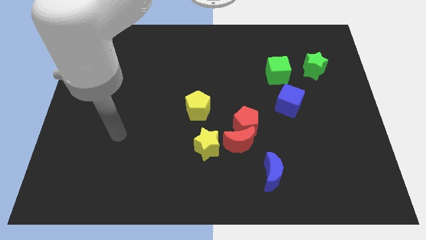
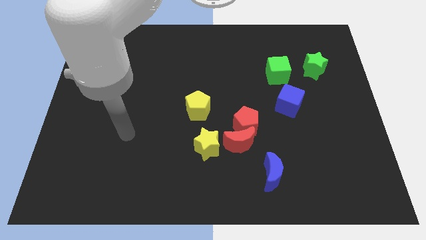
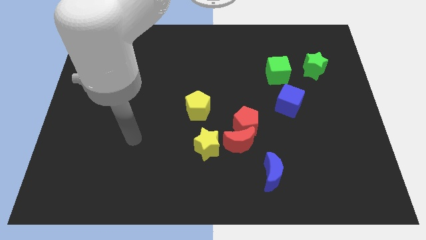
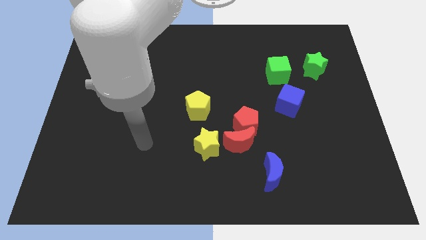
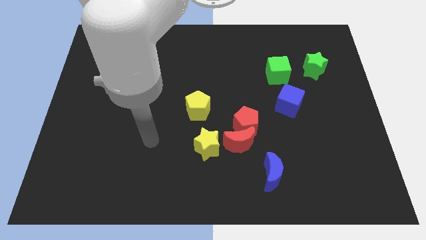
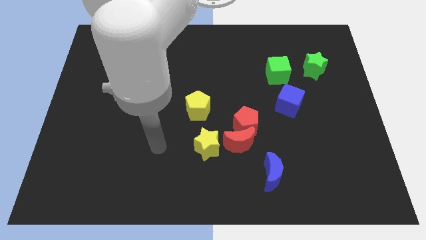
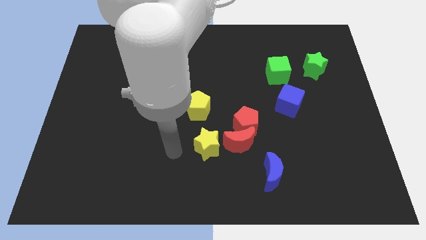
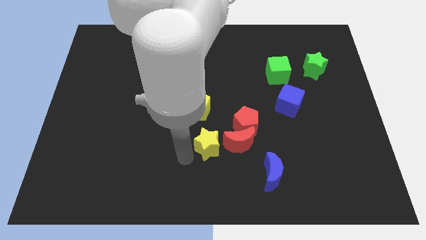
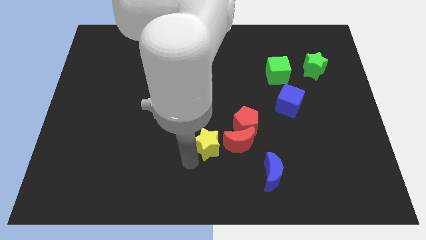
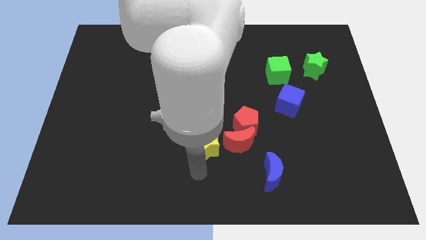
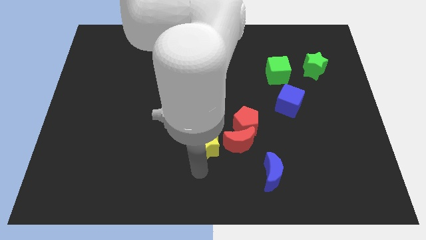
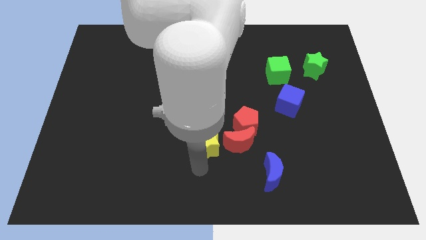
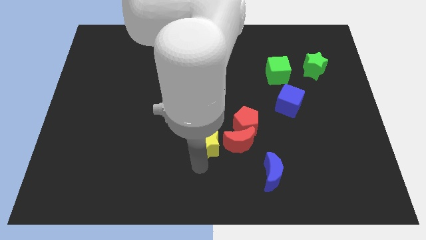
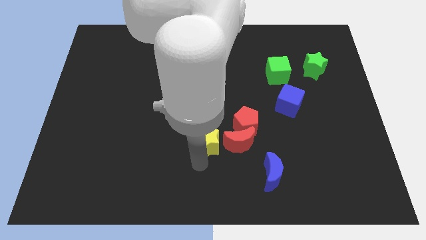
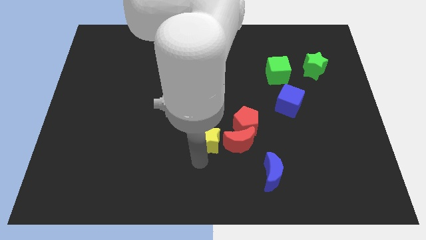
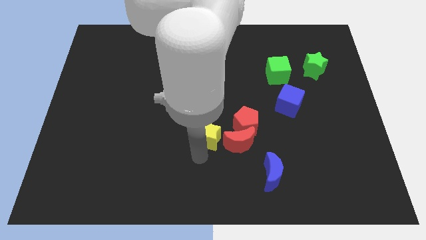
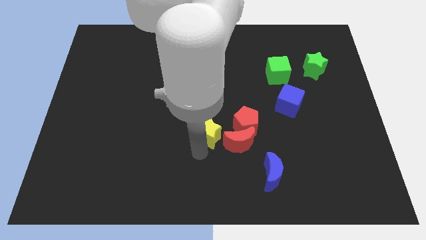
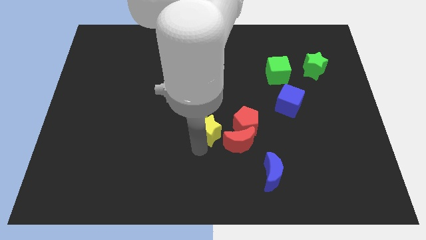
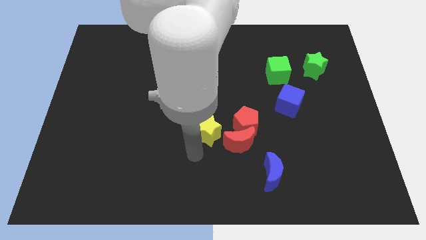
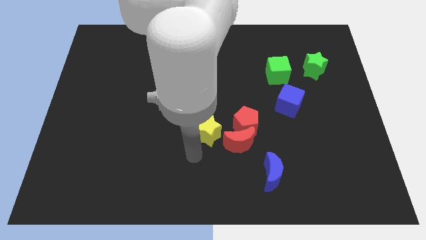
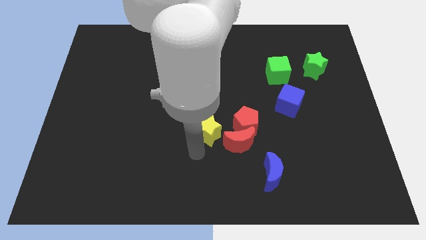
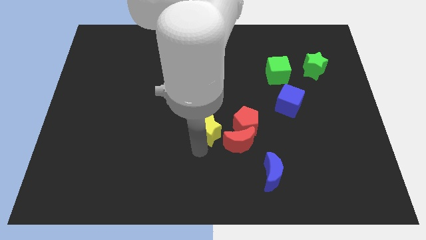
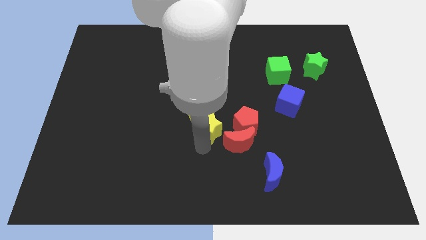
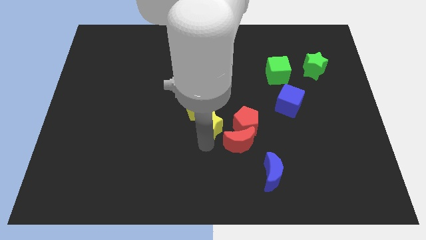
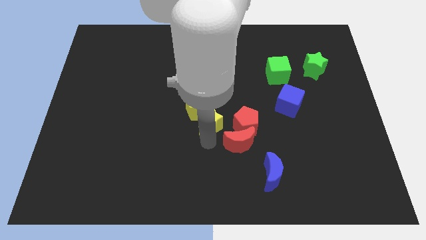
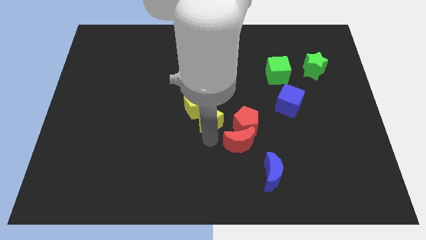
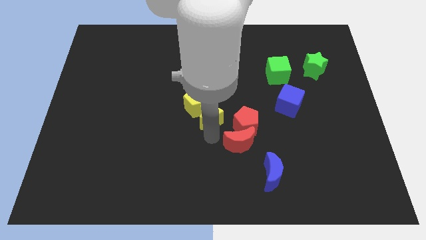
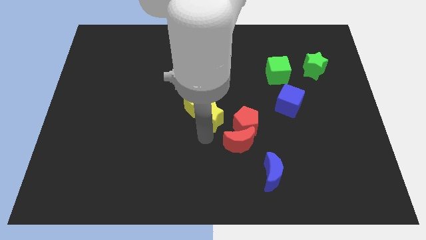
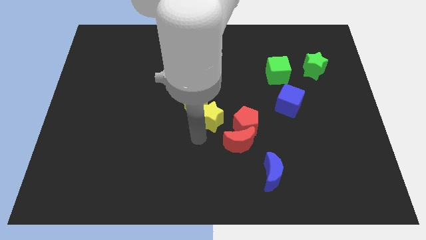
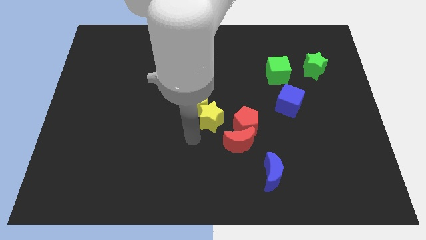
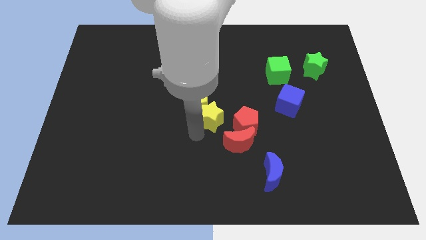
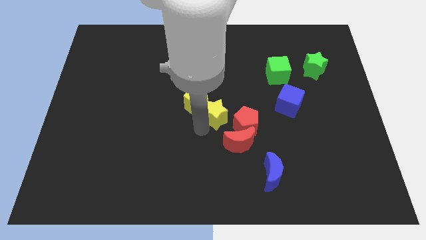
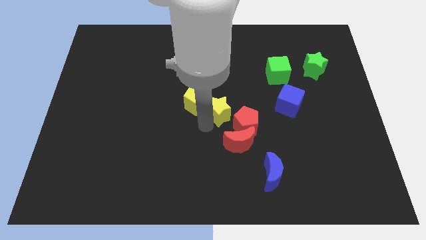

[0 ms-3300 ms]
move the yellow star a bit diagonally upwards and right

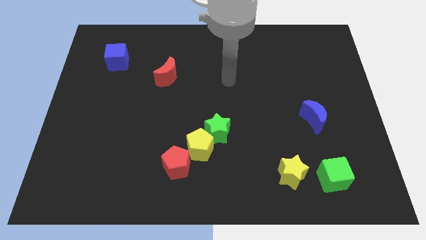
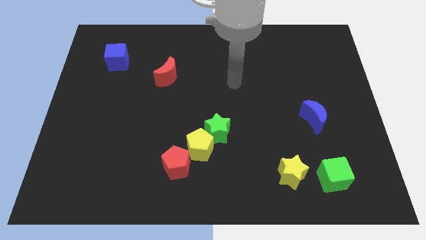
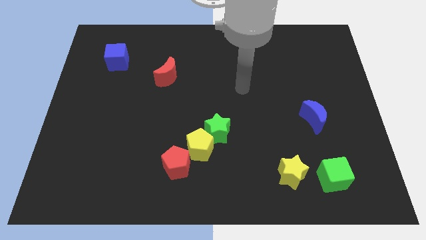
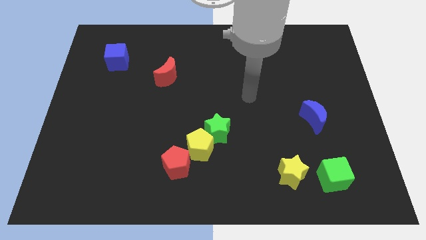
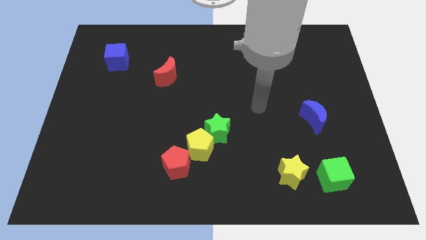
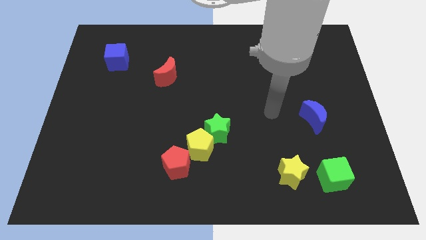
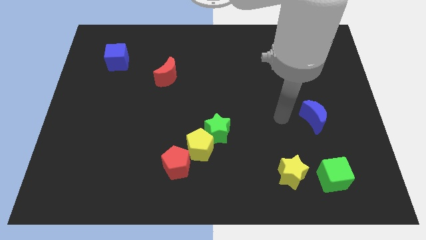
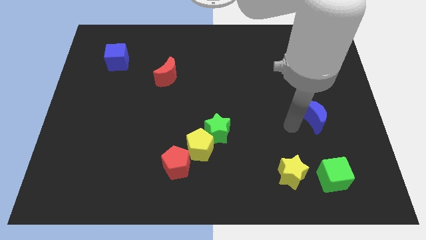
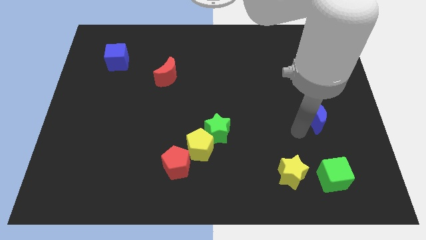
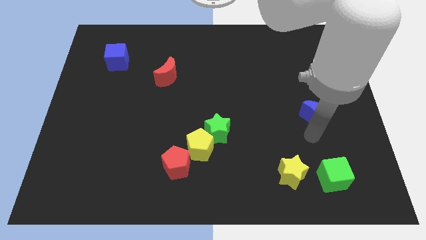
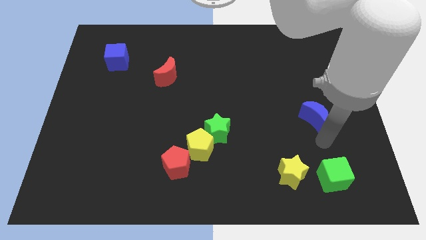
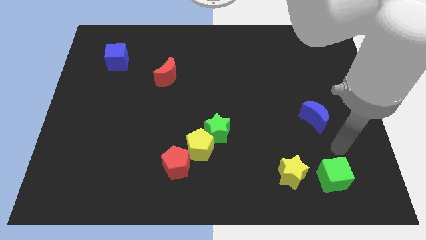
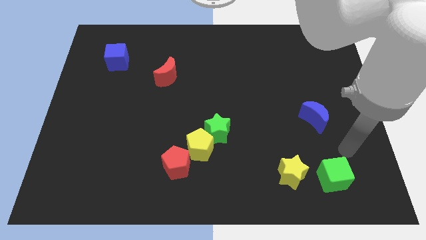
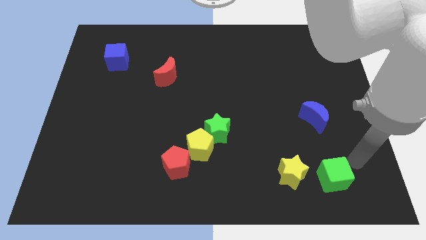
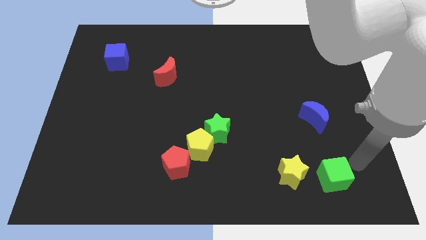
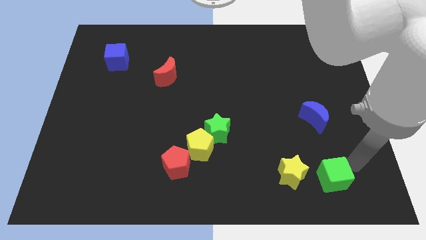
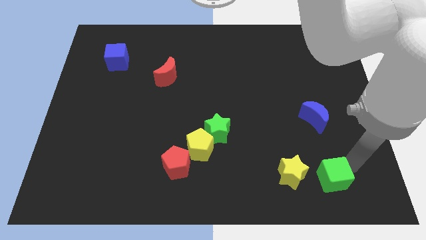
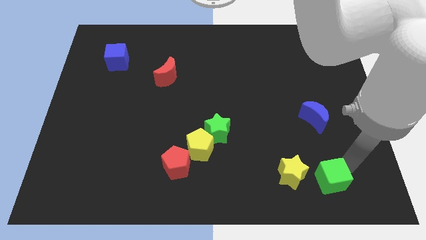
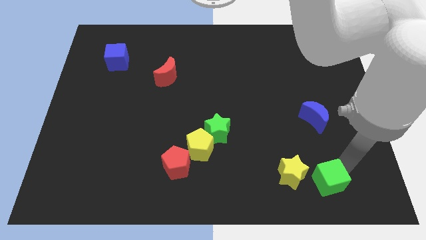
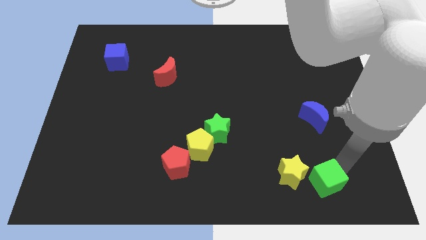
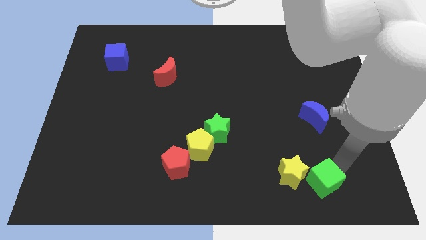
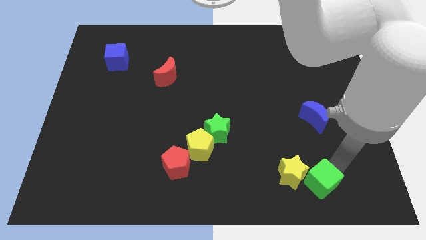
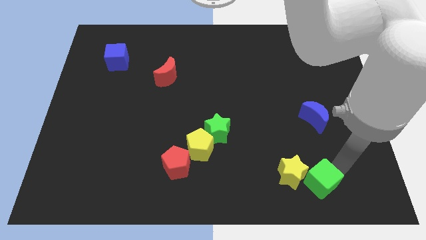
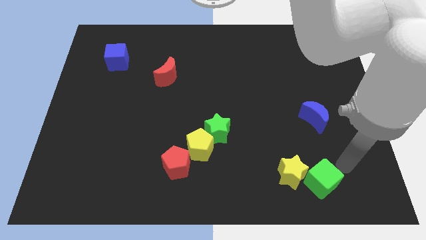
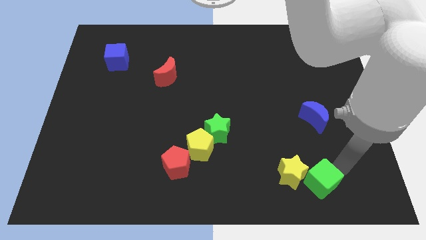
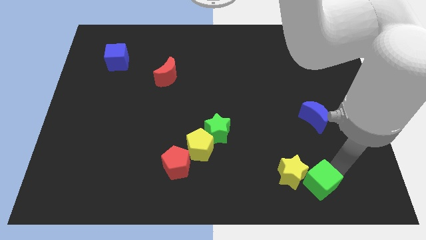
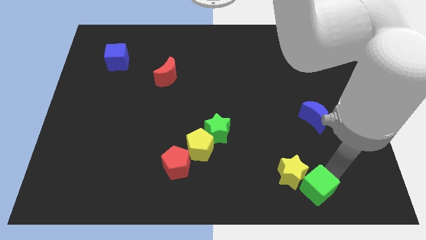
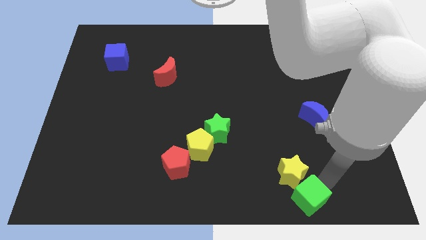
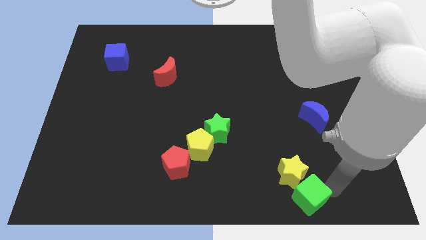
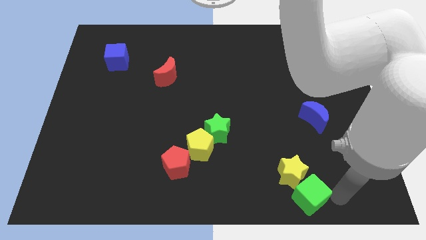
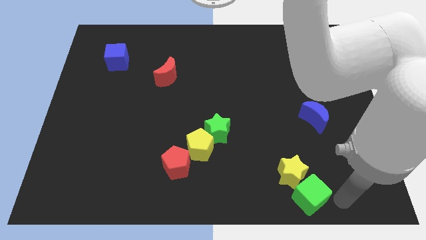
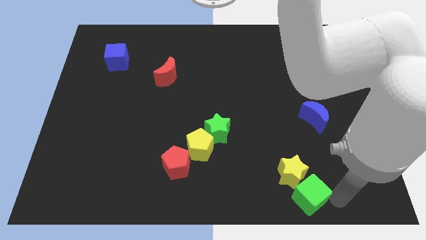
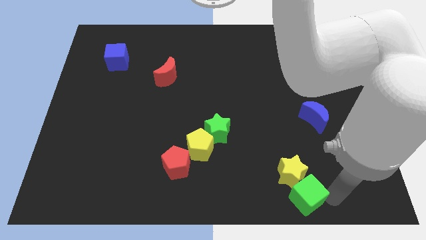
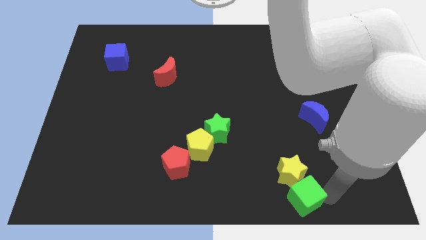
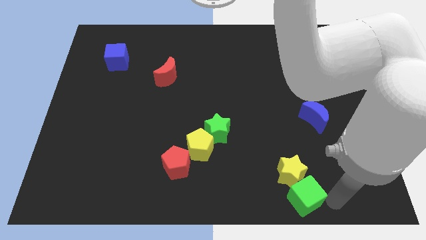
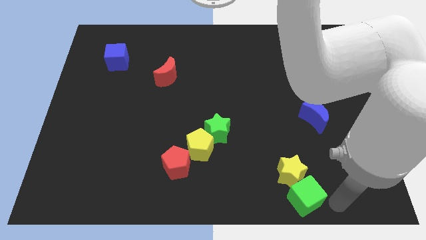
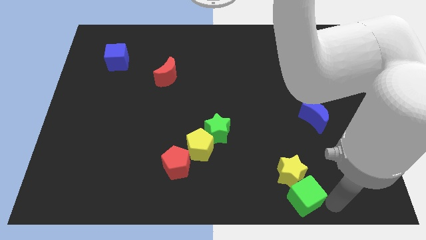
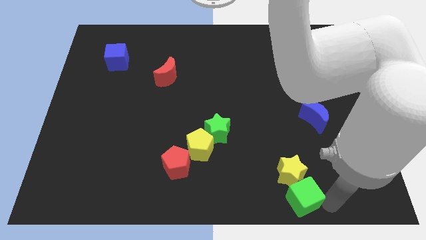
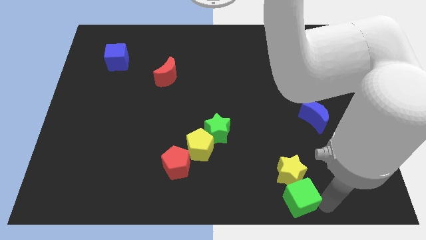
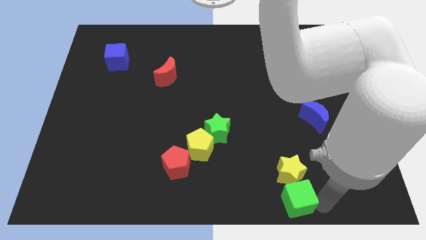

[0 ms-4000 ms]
slide the green cube a bit to the left

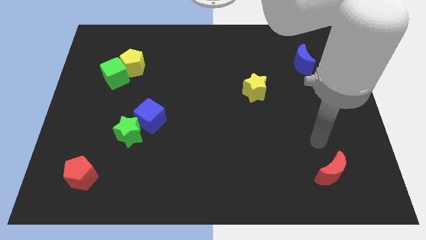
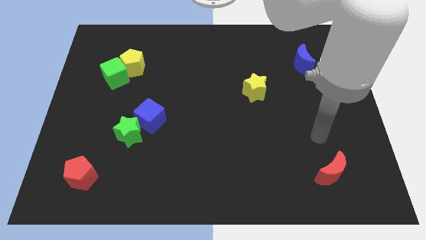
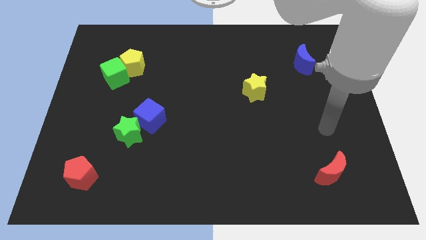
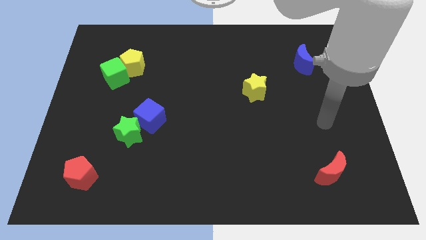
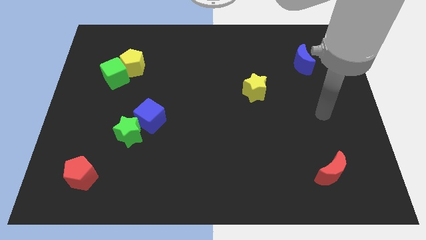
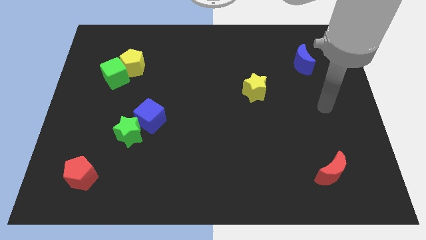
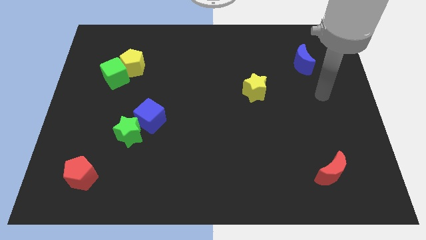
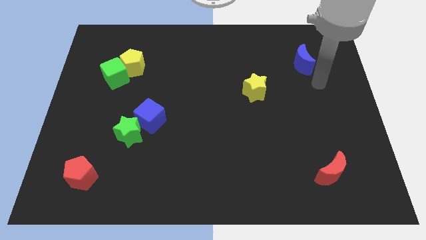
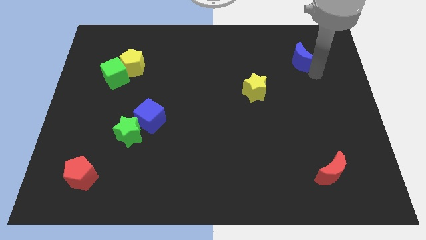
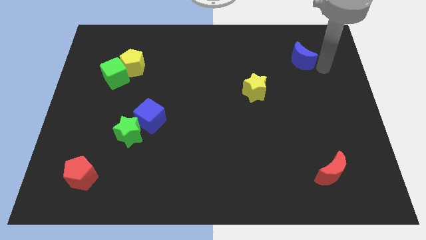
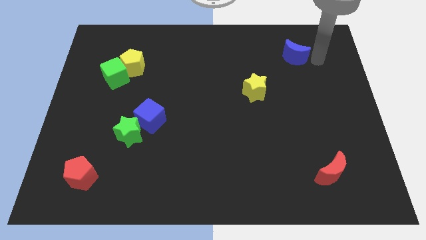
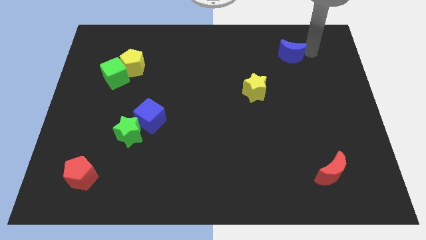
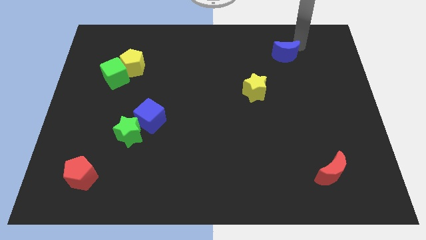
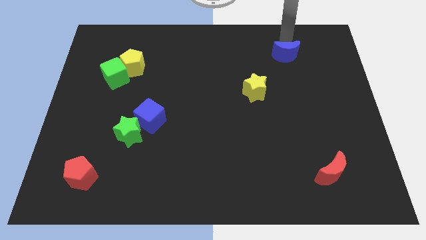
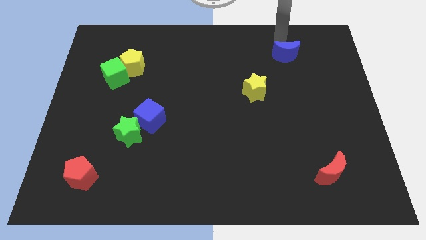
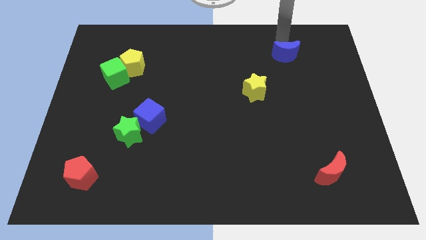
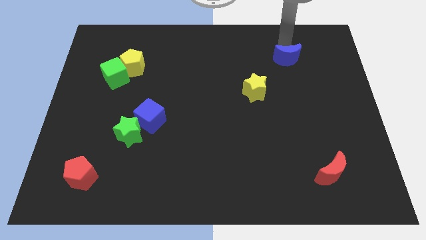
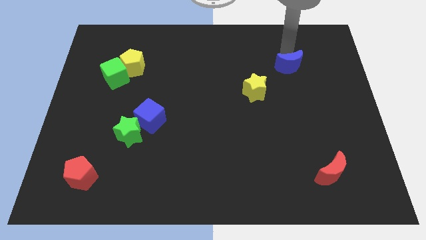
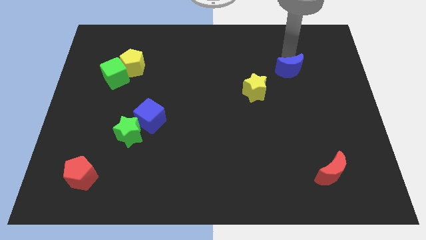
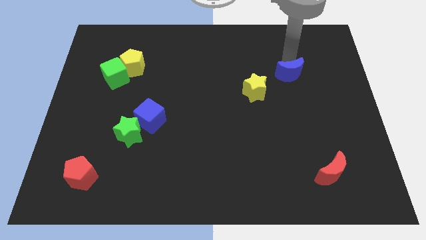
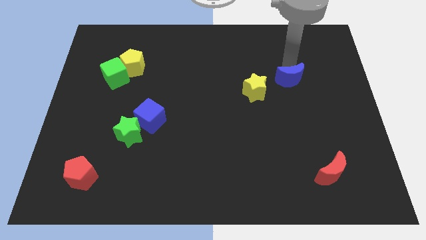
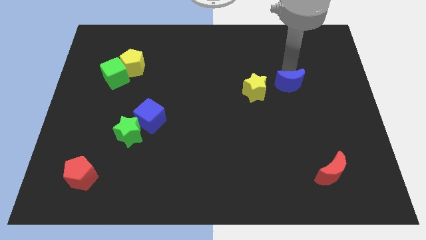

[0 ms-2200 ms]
push the blue moon downwards somewhat
